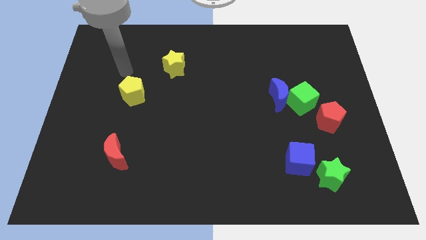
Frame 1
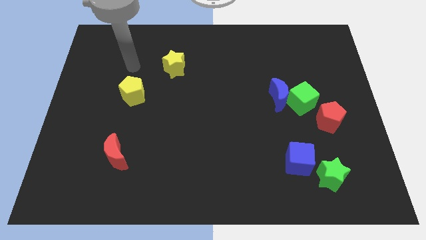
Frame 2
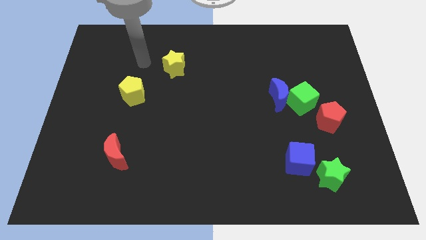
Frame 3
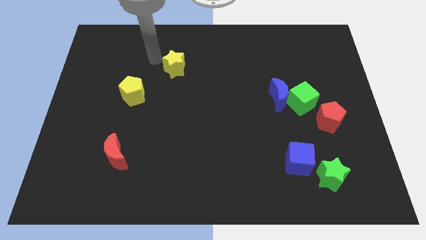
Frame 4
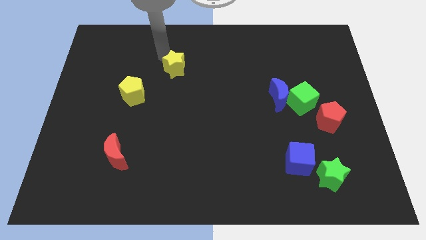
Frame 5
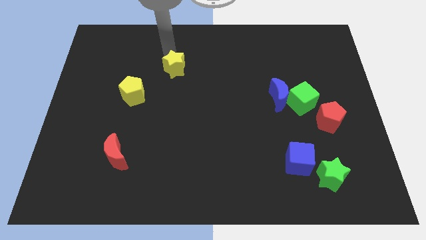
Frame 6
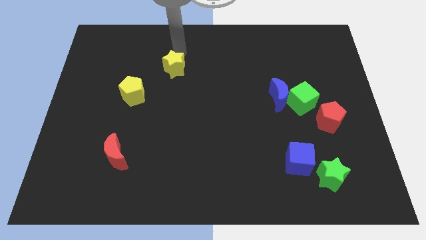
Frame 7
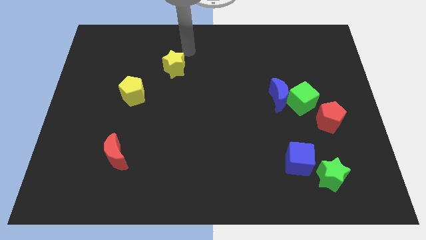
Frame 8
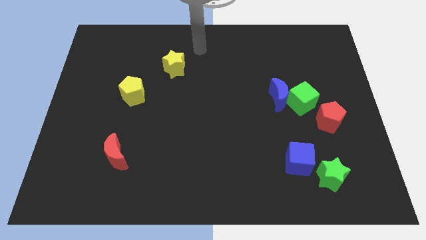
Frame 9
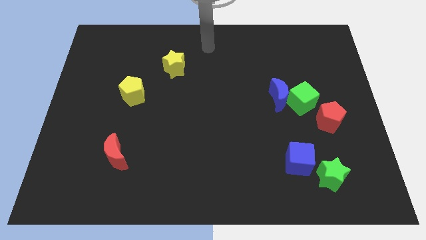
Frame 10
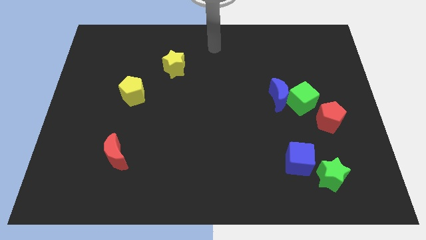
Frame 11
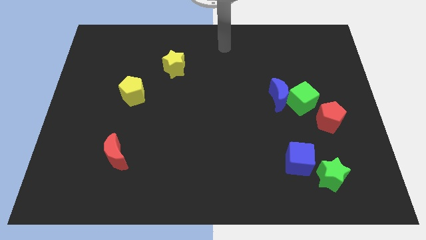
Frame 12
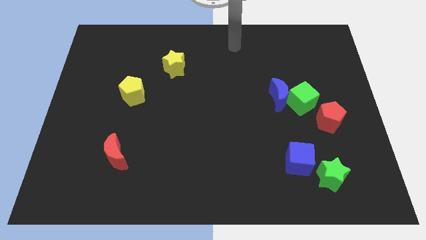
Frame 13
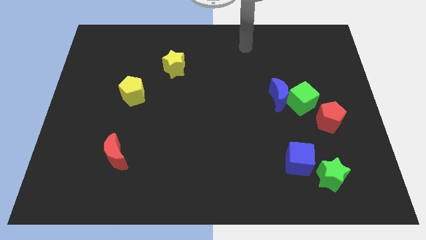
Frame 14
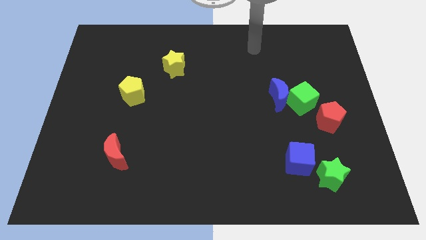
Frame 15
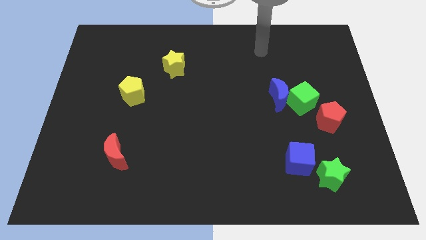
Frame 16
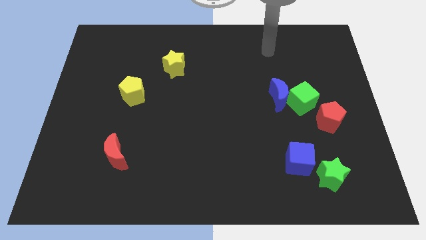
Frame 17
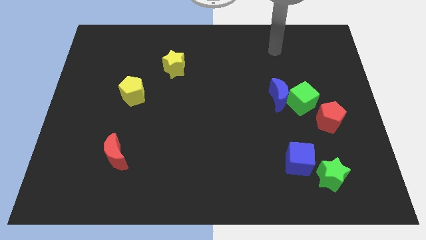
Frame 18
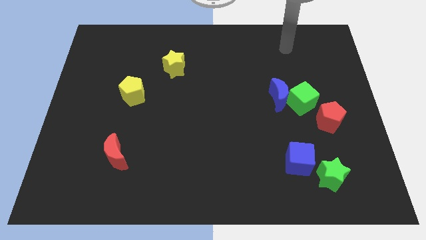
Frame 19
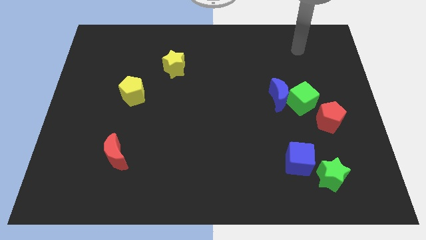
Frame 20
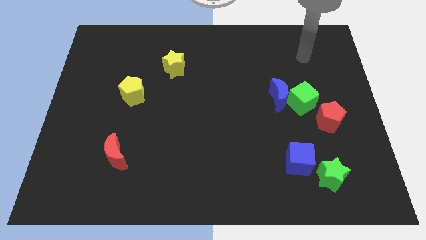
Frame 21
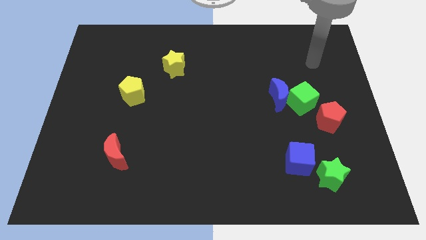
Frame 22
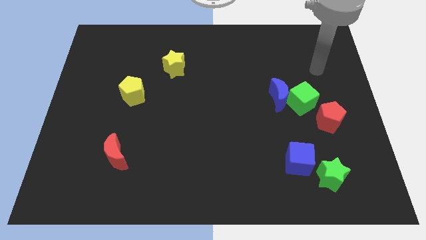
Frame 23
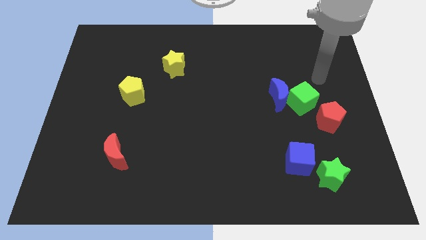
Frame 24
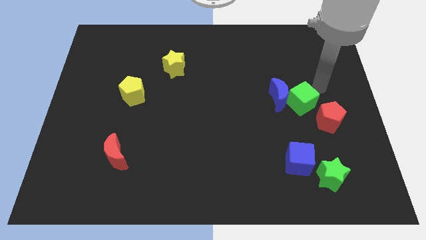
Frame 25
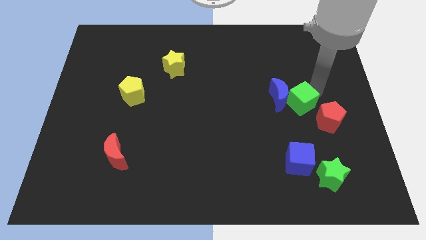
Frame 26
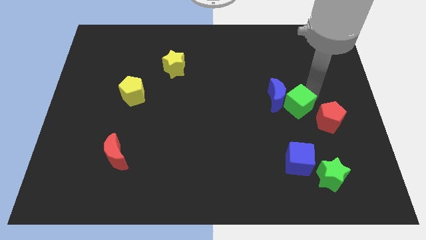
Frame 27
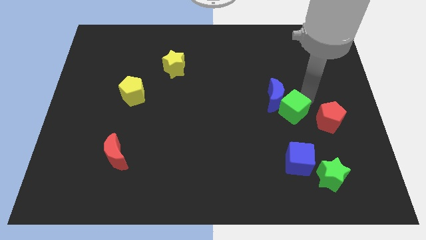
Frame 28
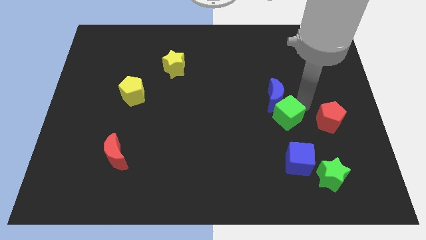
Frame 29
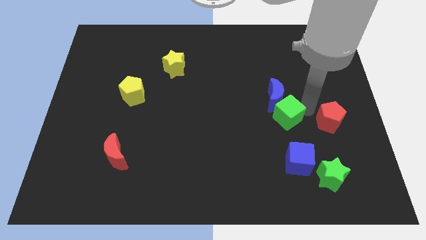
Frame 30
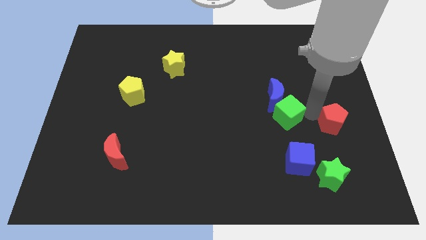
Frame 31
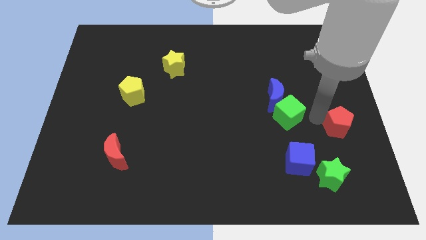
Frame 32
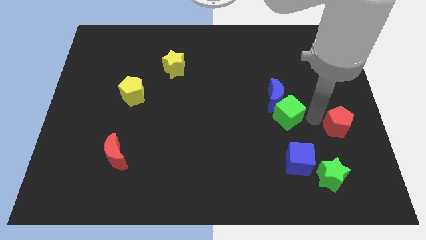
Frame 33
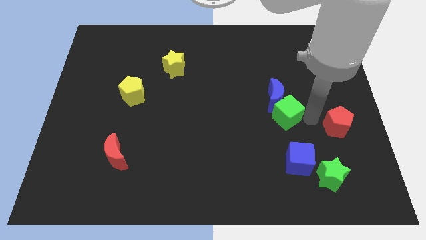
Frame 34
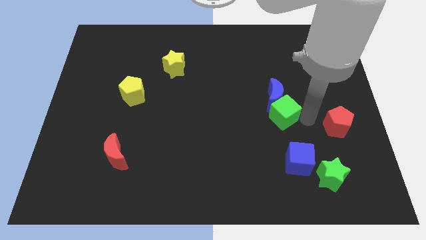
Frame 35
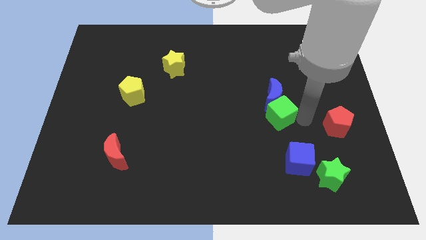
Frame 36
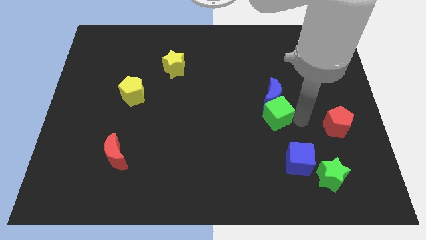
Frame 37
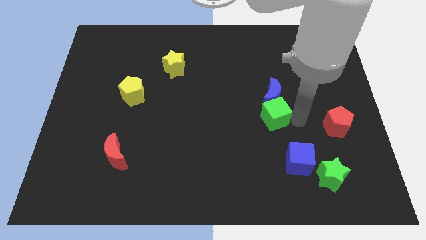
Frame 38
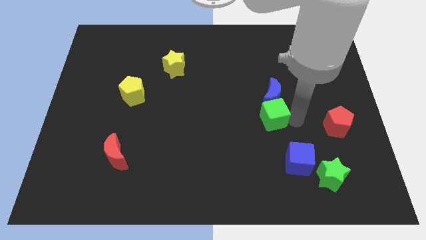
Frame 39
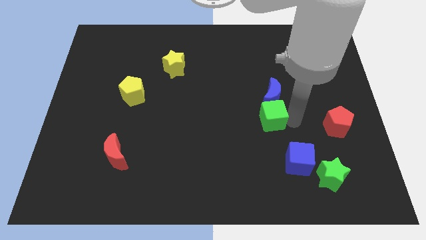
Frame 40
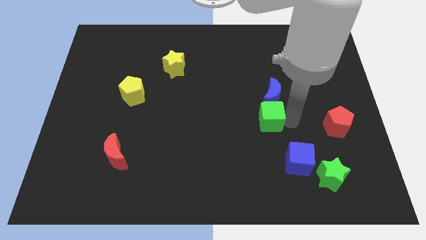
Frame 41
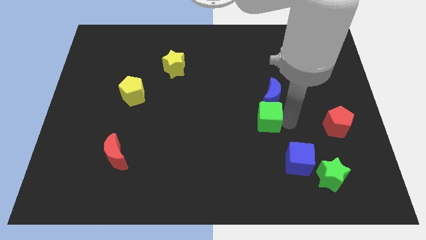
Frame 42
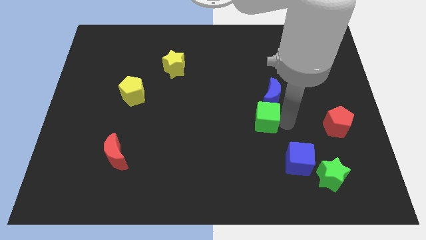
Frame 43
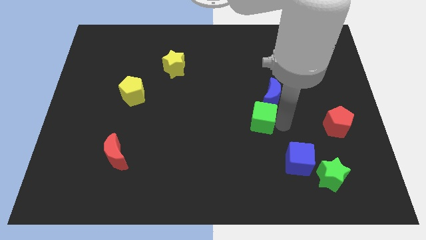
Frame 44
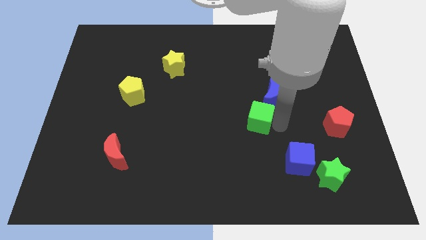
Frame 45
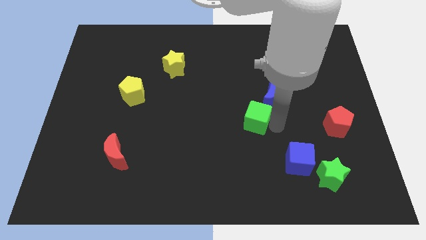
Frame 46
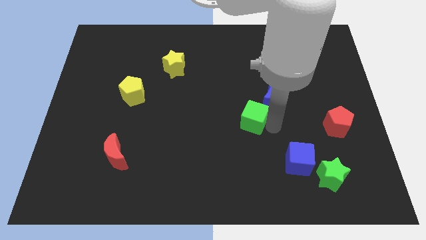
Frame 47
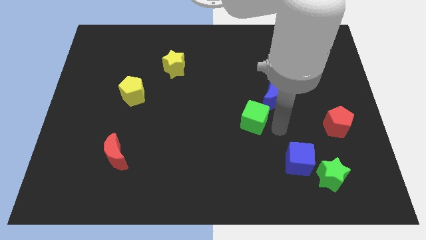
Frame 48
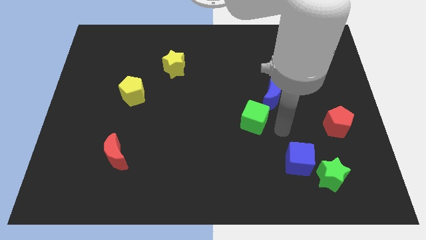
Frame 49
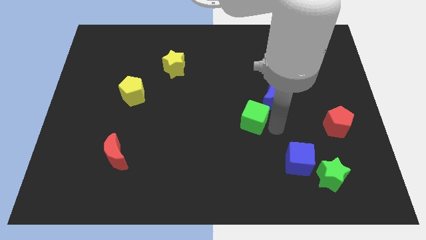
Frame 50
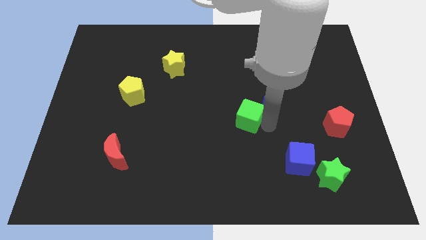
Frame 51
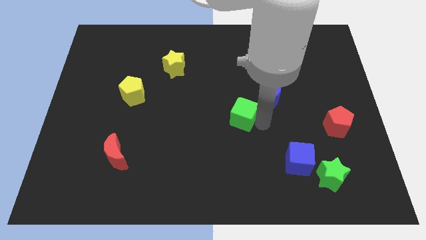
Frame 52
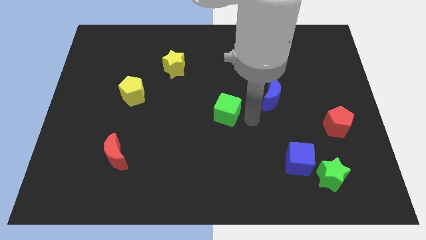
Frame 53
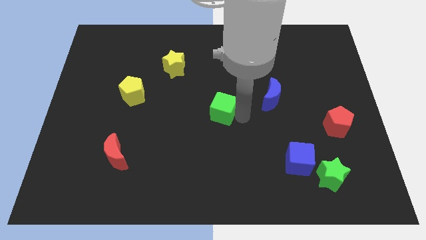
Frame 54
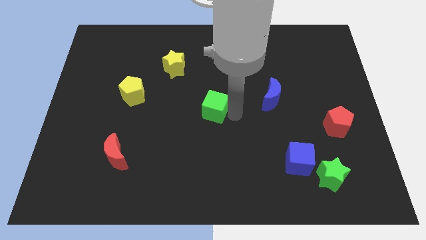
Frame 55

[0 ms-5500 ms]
move the green cube left

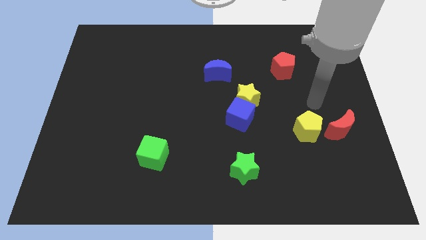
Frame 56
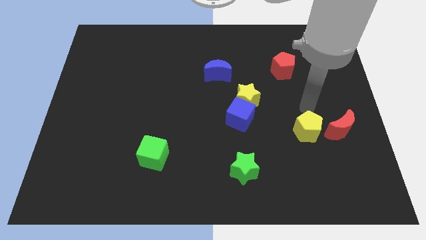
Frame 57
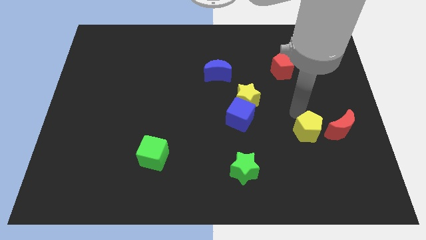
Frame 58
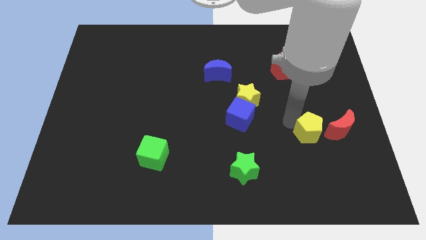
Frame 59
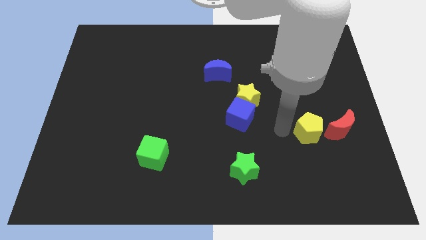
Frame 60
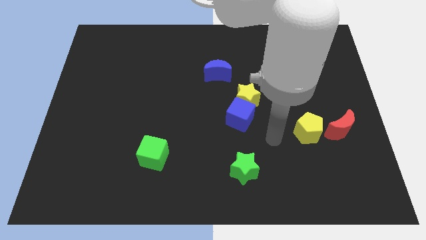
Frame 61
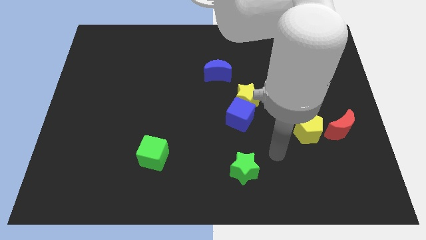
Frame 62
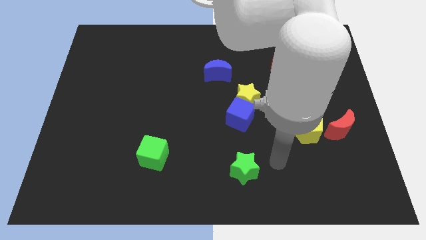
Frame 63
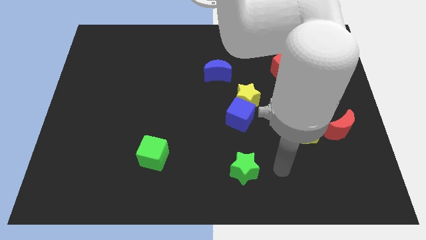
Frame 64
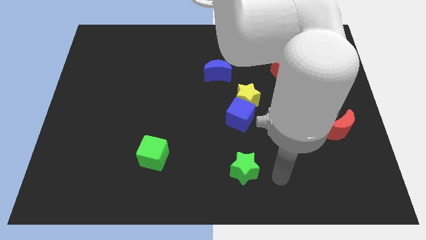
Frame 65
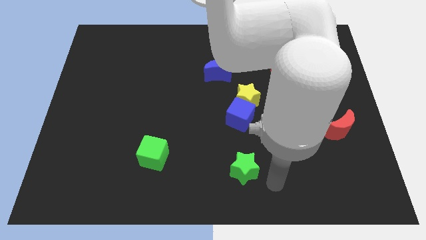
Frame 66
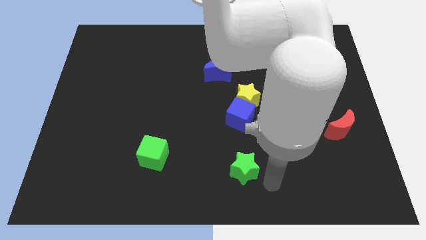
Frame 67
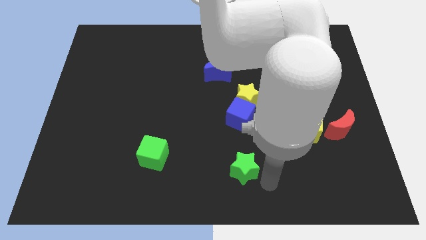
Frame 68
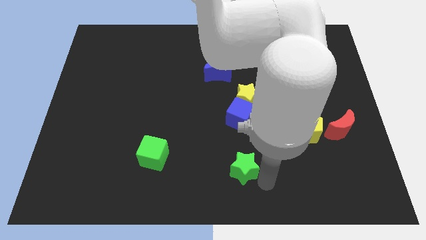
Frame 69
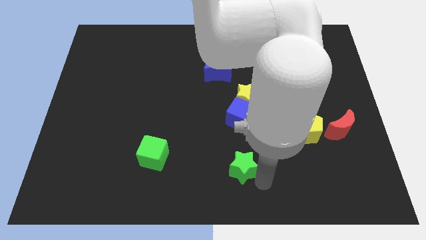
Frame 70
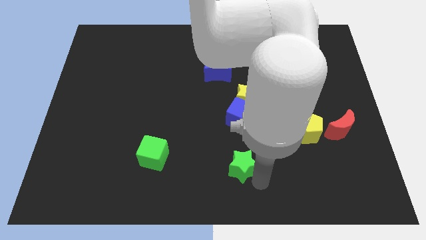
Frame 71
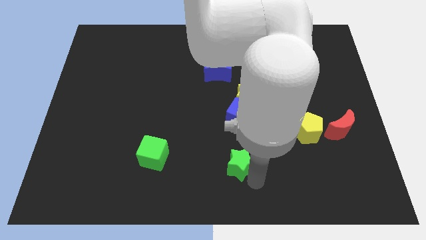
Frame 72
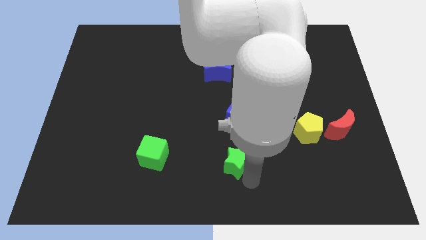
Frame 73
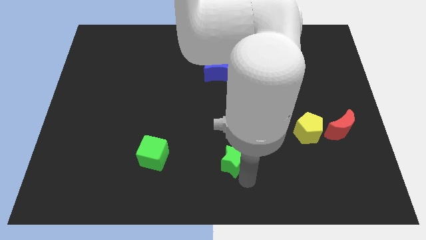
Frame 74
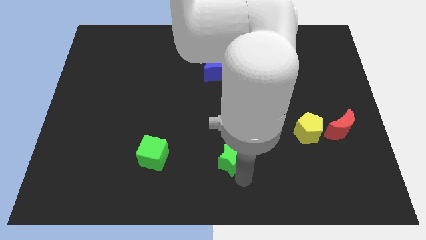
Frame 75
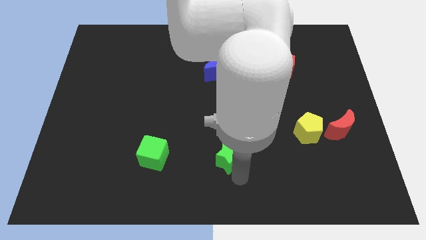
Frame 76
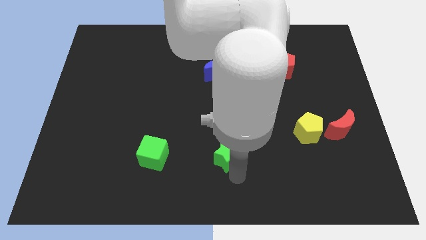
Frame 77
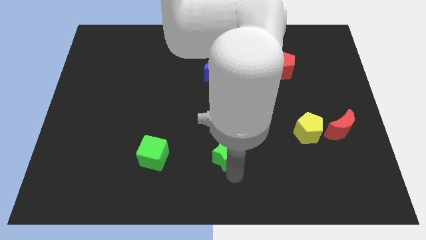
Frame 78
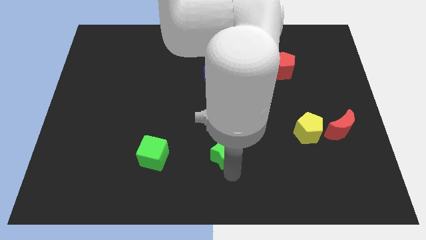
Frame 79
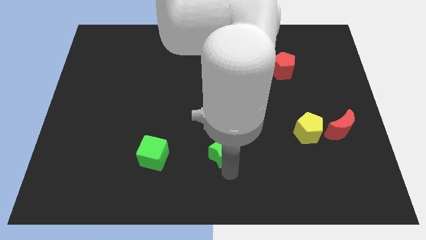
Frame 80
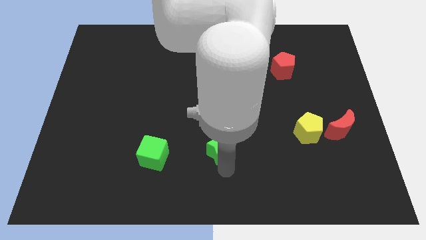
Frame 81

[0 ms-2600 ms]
slide the green star up and left diagonally a little bit
